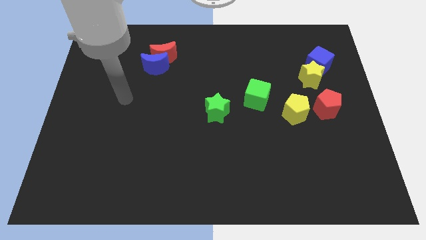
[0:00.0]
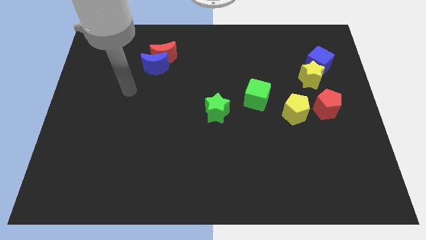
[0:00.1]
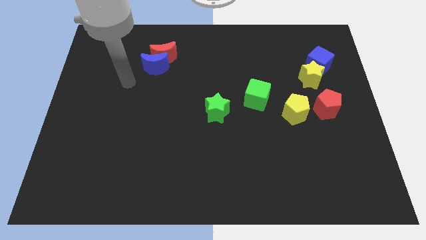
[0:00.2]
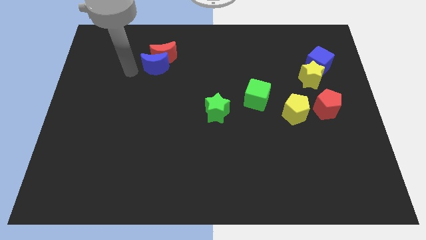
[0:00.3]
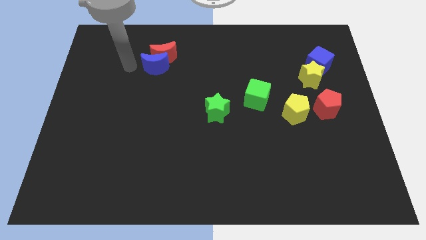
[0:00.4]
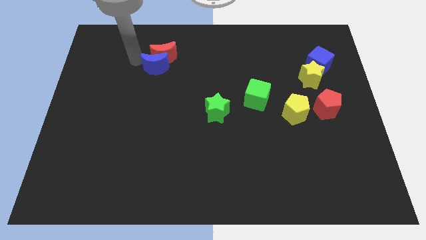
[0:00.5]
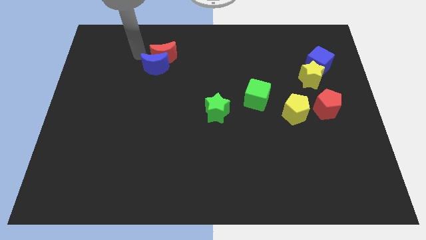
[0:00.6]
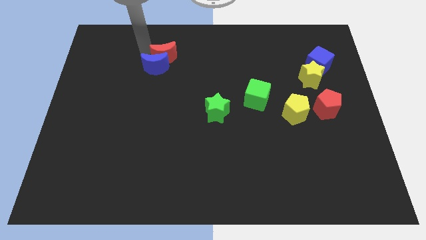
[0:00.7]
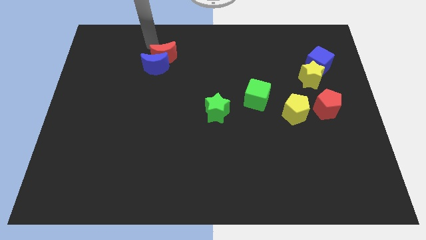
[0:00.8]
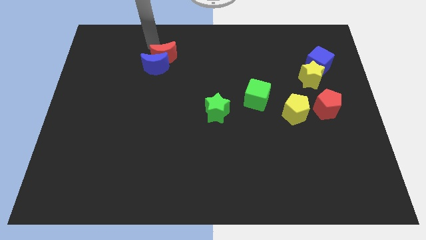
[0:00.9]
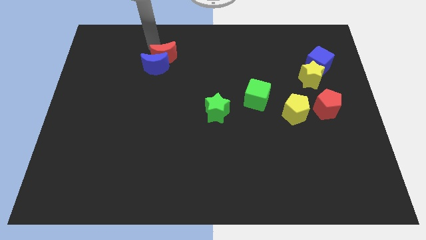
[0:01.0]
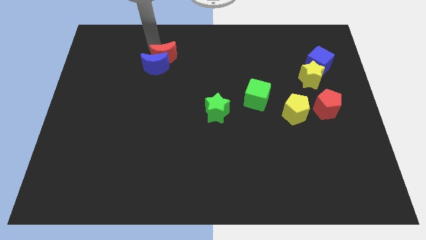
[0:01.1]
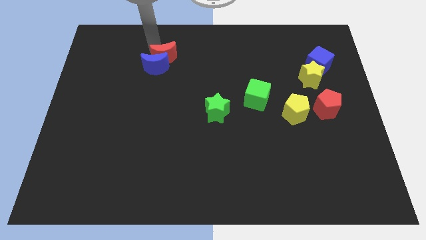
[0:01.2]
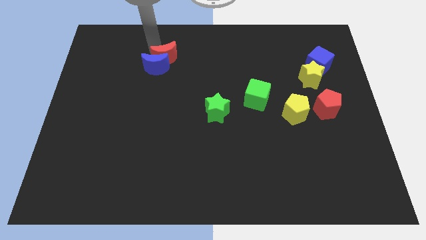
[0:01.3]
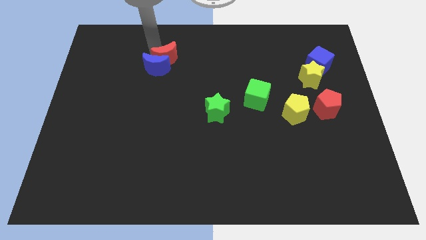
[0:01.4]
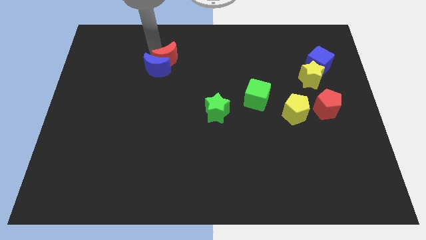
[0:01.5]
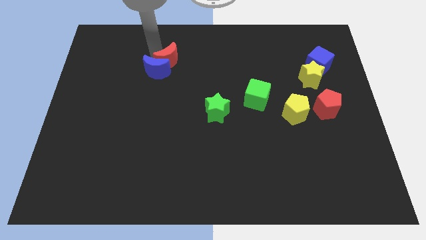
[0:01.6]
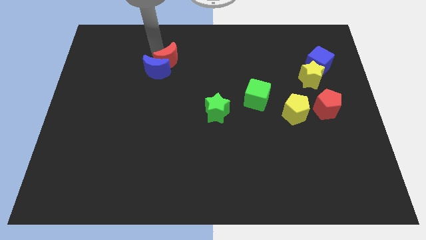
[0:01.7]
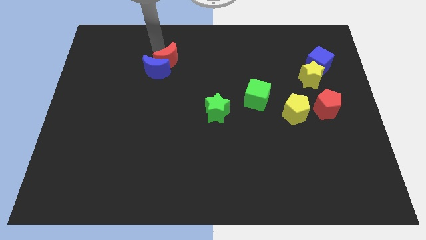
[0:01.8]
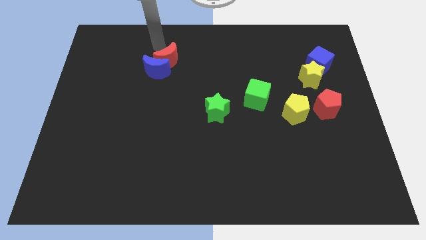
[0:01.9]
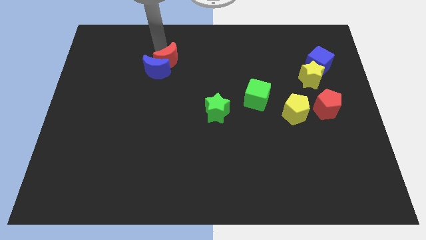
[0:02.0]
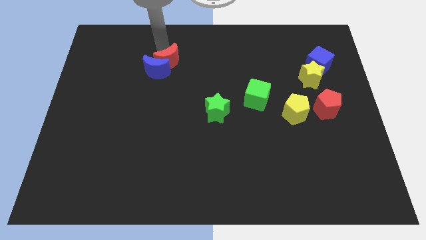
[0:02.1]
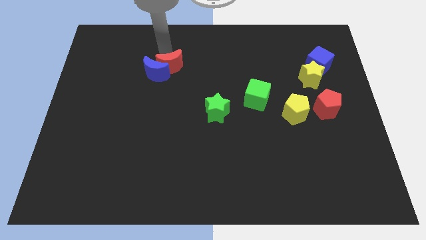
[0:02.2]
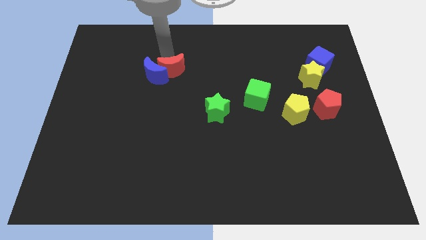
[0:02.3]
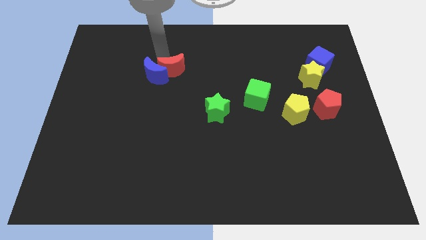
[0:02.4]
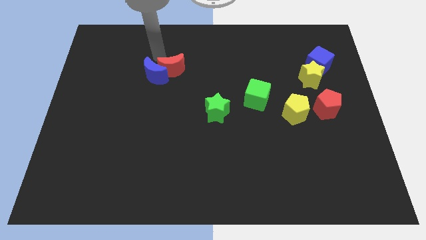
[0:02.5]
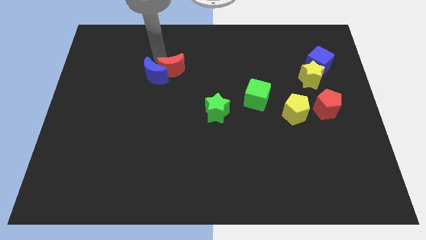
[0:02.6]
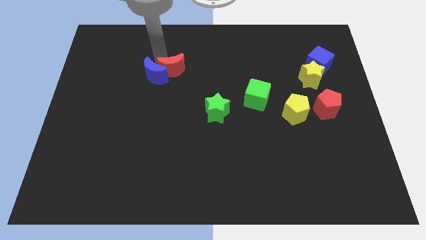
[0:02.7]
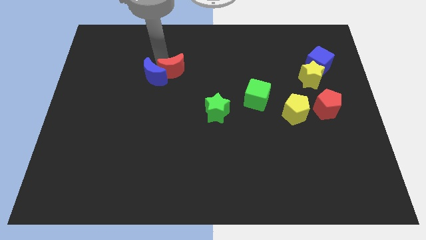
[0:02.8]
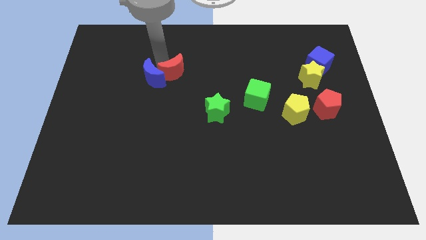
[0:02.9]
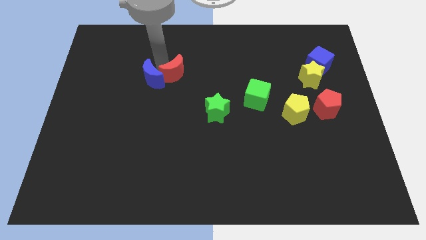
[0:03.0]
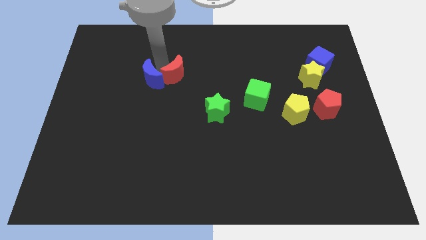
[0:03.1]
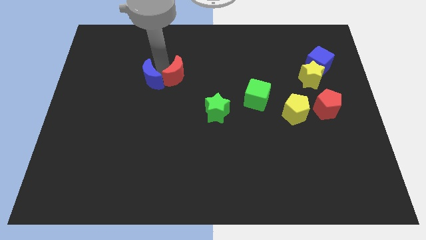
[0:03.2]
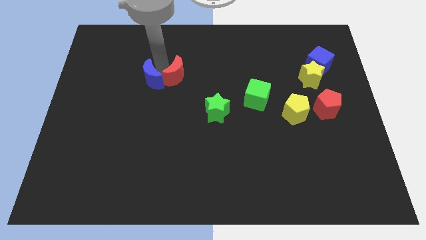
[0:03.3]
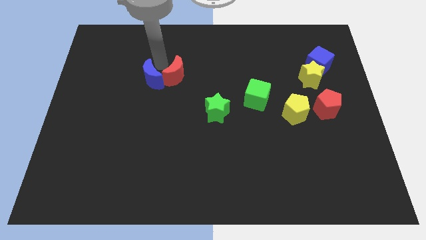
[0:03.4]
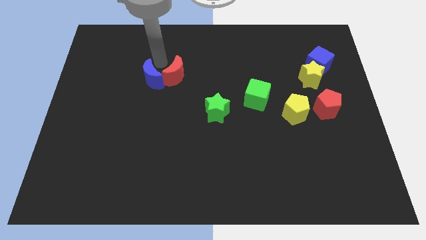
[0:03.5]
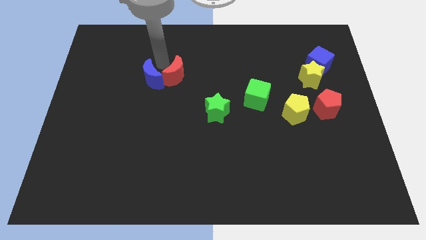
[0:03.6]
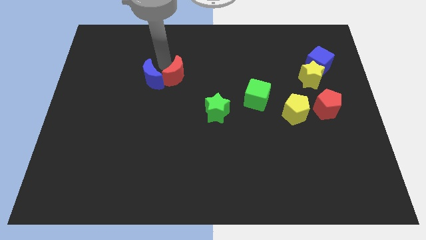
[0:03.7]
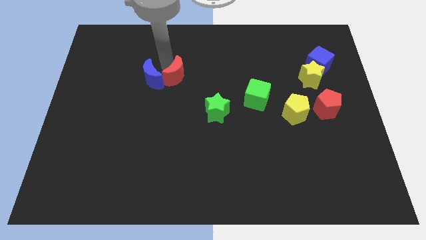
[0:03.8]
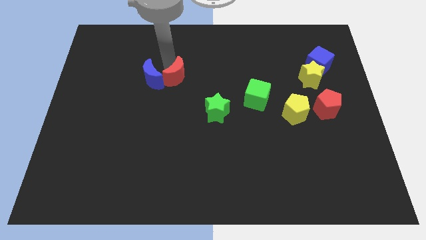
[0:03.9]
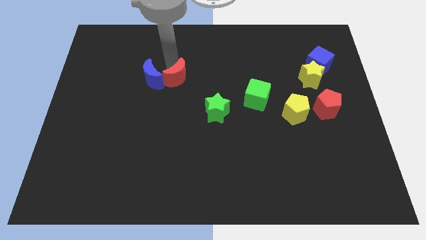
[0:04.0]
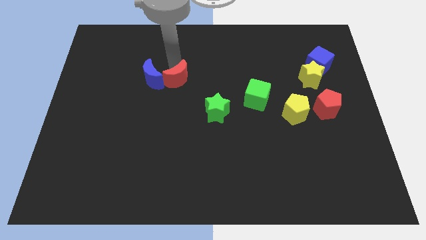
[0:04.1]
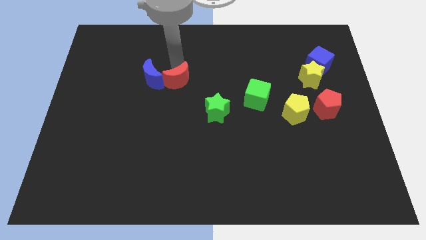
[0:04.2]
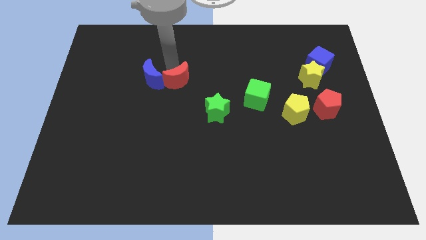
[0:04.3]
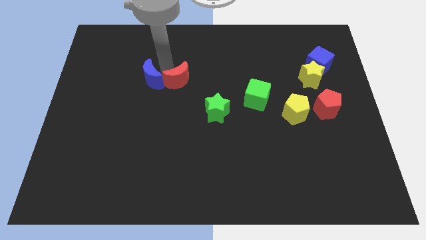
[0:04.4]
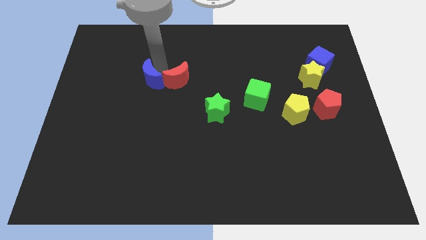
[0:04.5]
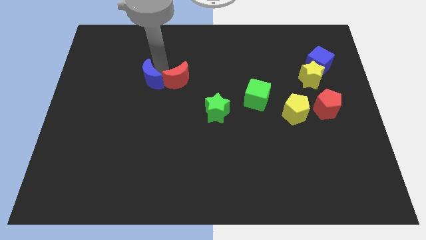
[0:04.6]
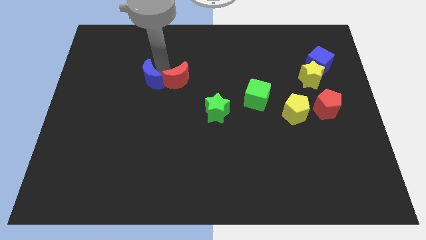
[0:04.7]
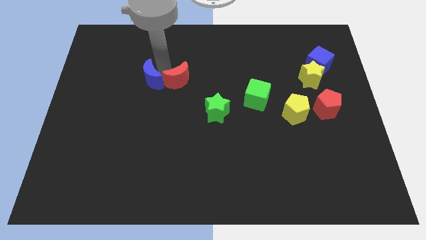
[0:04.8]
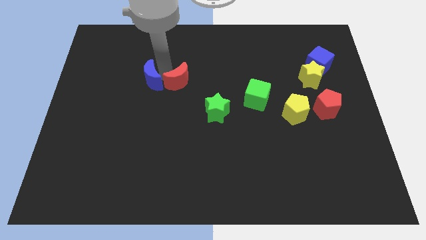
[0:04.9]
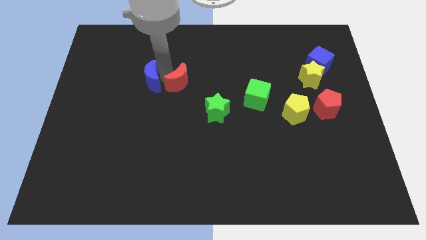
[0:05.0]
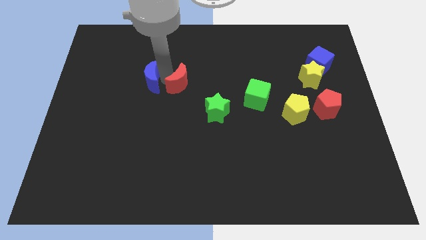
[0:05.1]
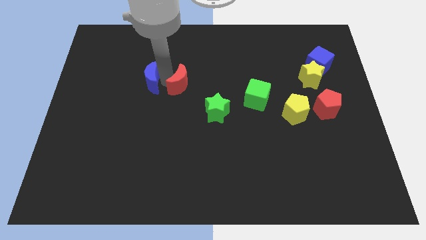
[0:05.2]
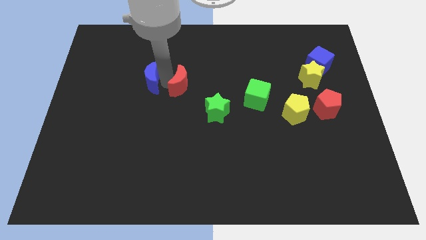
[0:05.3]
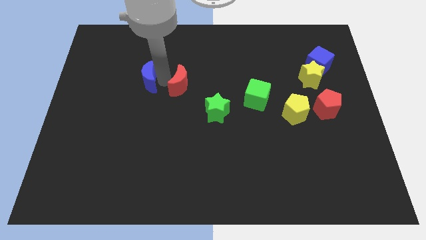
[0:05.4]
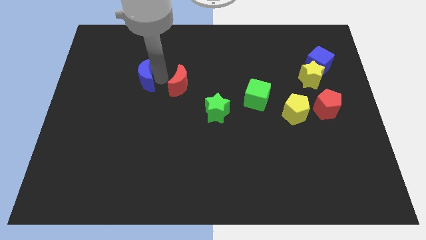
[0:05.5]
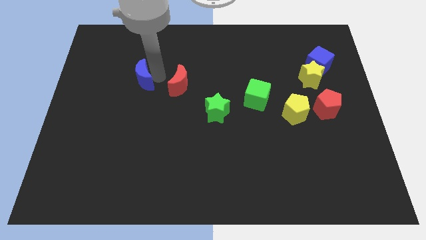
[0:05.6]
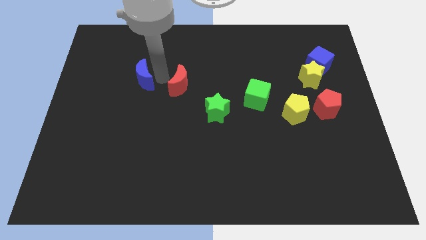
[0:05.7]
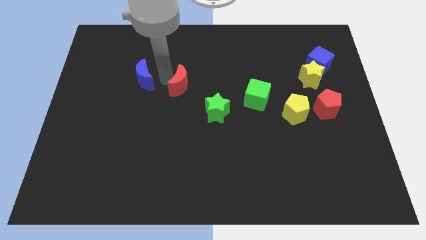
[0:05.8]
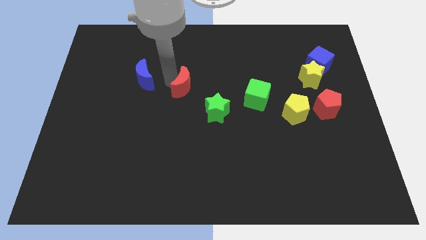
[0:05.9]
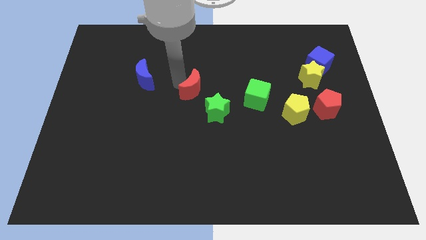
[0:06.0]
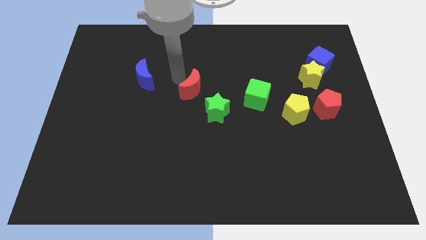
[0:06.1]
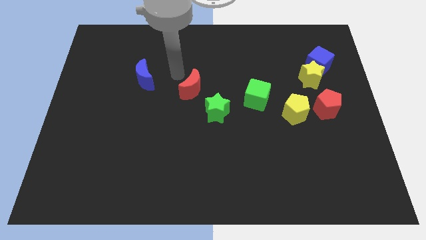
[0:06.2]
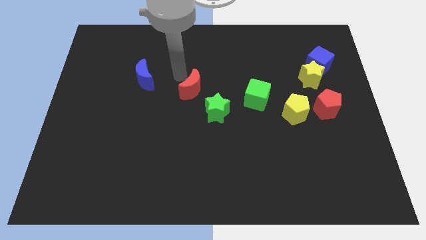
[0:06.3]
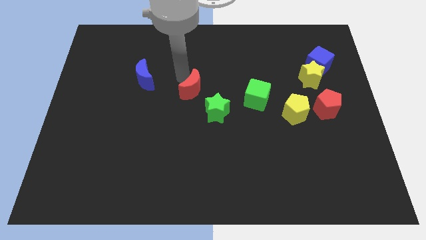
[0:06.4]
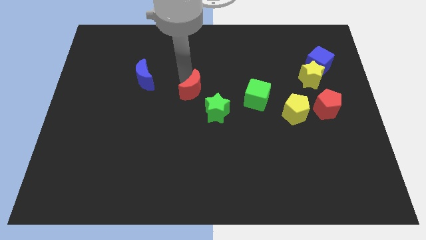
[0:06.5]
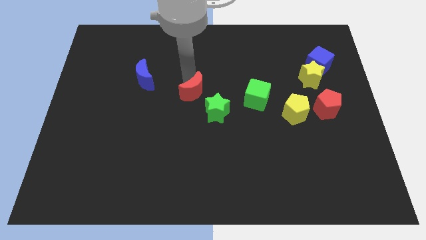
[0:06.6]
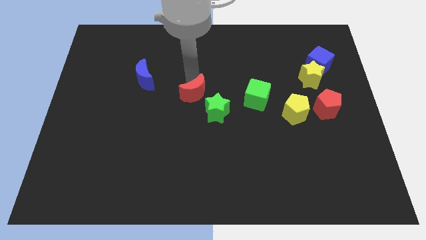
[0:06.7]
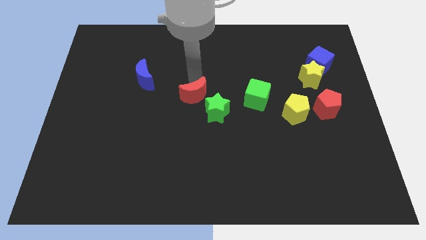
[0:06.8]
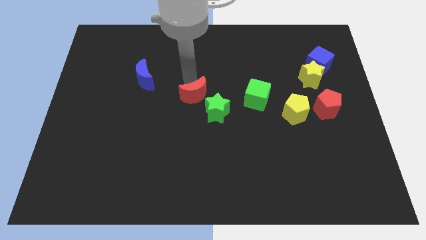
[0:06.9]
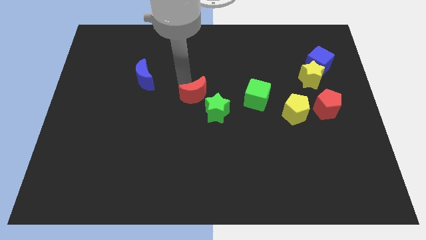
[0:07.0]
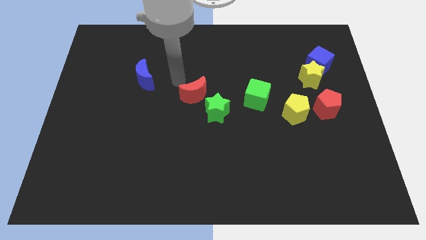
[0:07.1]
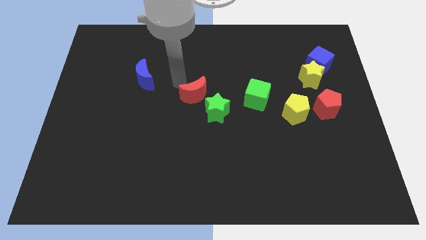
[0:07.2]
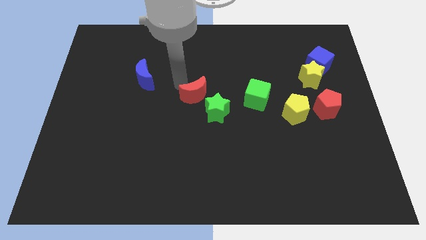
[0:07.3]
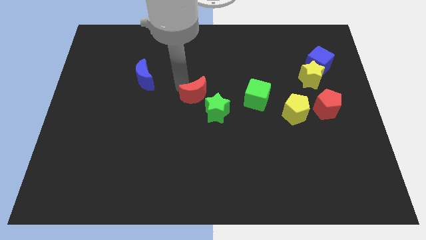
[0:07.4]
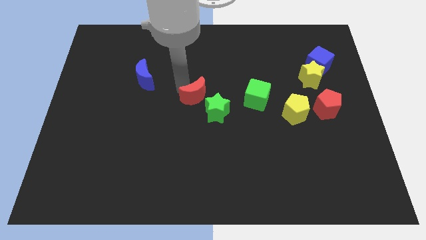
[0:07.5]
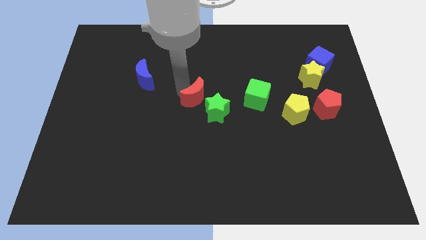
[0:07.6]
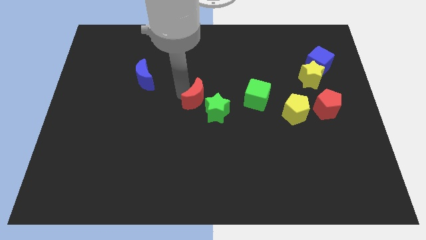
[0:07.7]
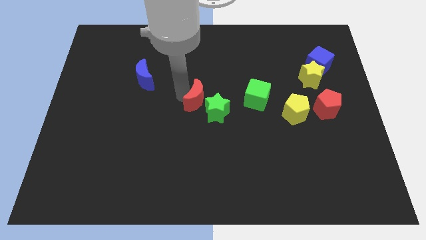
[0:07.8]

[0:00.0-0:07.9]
slide the red moon next to the green star
